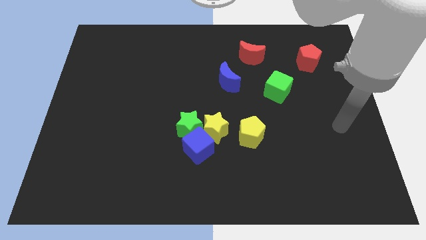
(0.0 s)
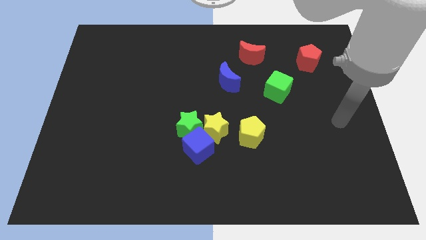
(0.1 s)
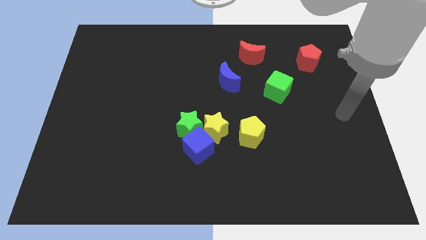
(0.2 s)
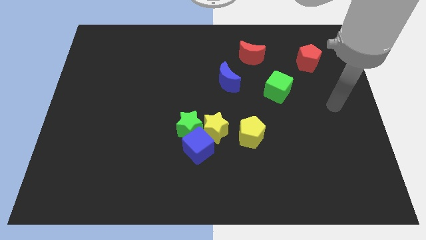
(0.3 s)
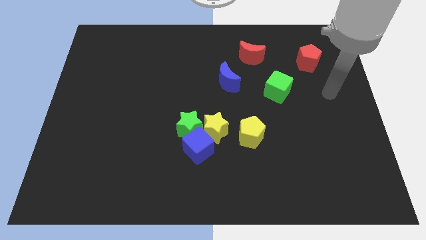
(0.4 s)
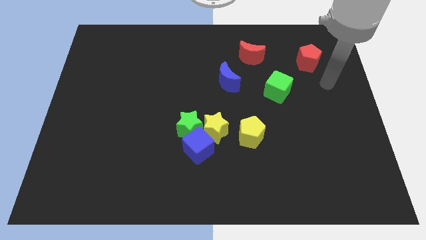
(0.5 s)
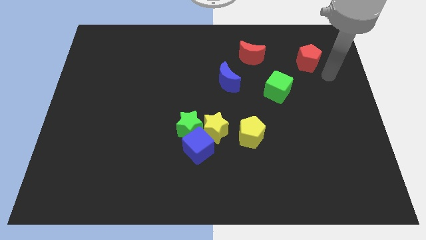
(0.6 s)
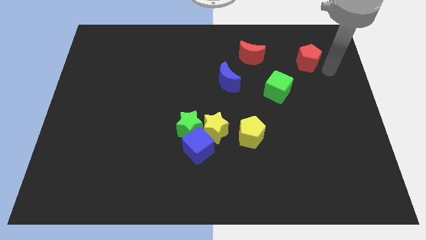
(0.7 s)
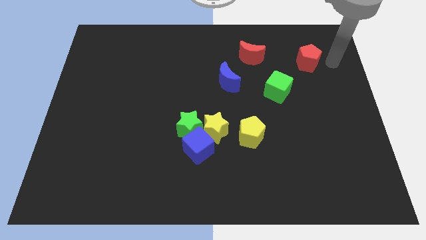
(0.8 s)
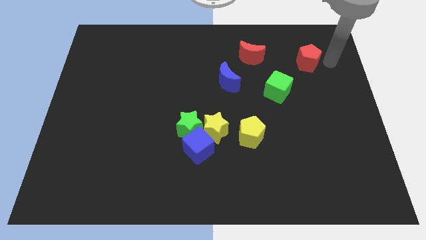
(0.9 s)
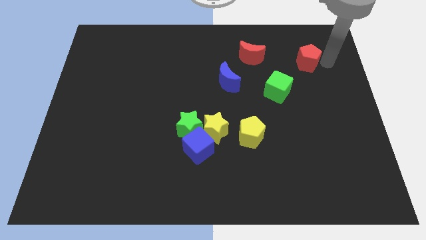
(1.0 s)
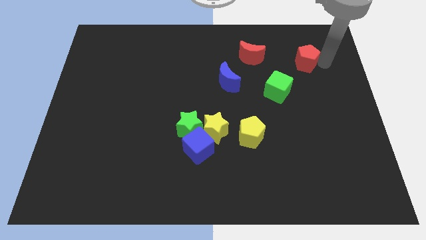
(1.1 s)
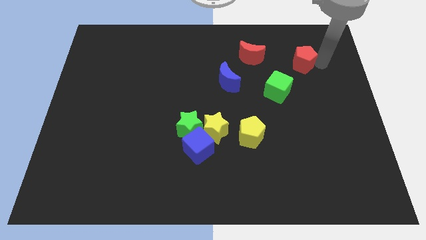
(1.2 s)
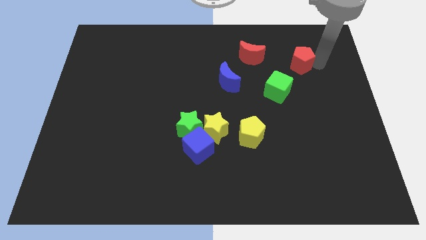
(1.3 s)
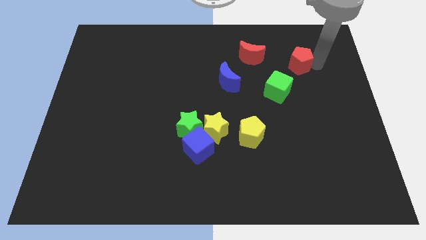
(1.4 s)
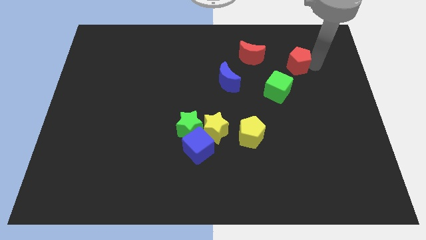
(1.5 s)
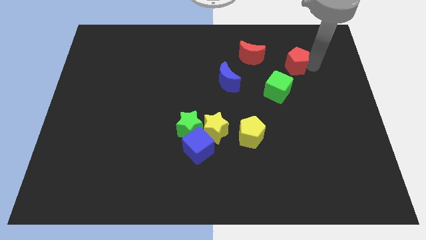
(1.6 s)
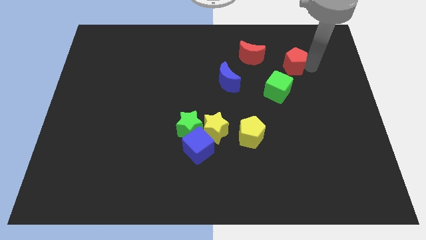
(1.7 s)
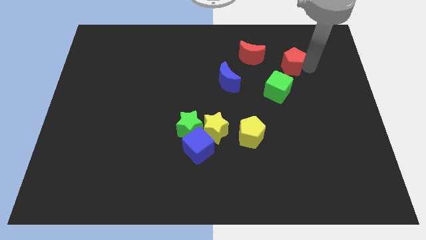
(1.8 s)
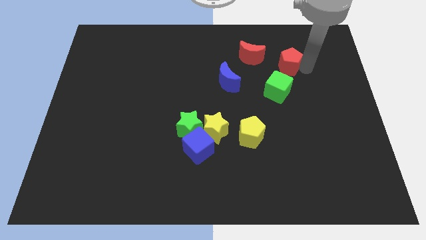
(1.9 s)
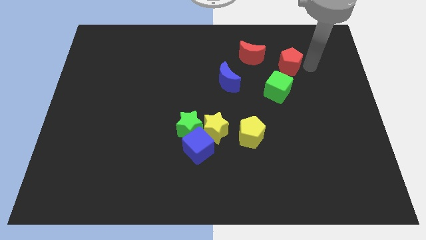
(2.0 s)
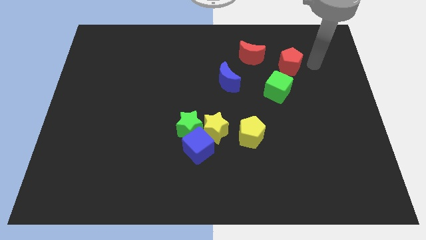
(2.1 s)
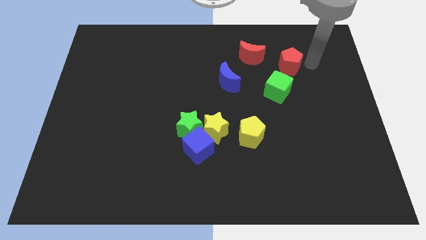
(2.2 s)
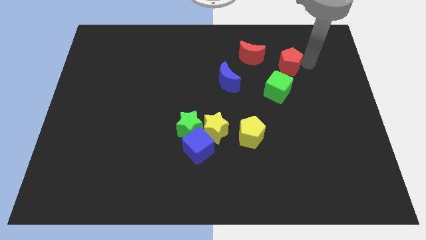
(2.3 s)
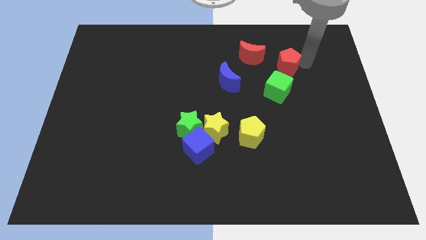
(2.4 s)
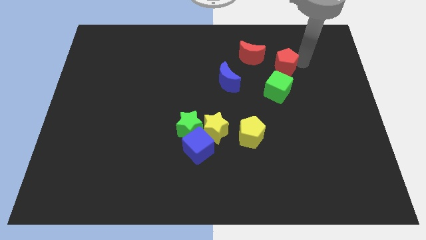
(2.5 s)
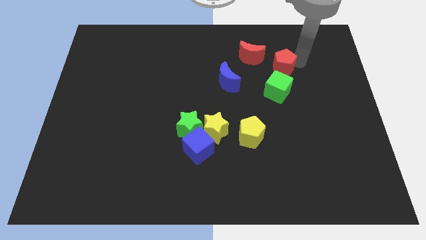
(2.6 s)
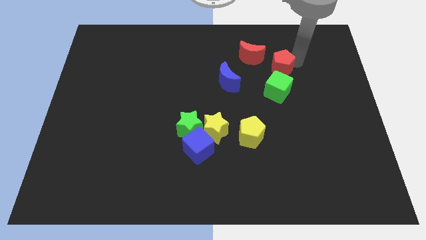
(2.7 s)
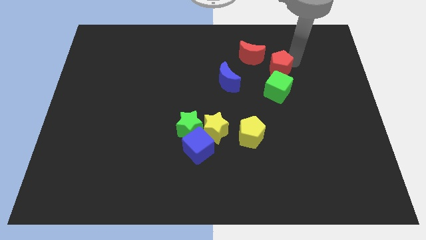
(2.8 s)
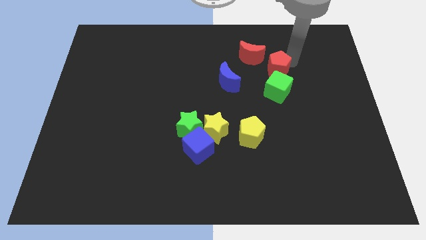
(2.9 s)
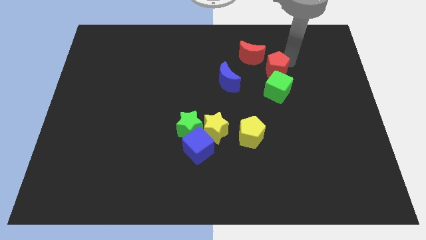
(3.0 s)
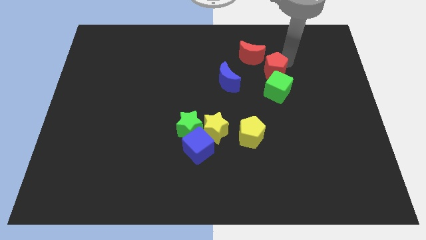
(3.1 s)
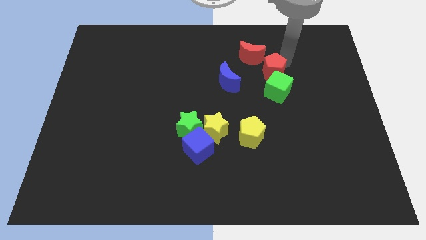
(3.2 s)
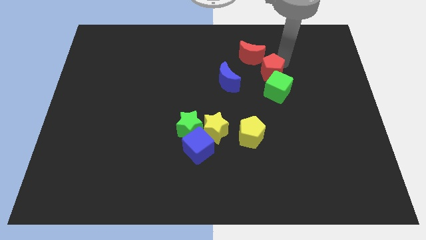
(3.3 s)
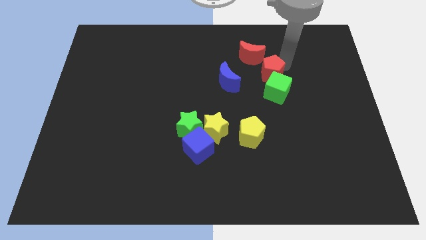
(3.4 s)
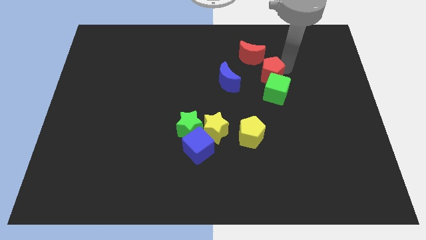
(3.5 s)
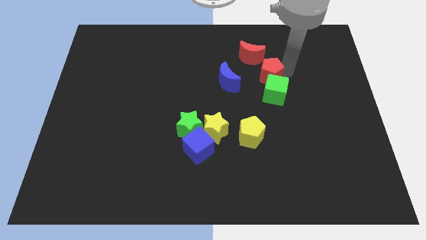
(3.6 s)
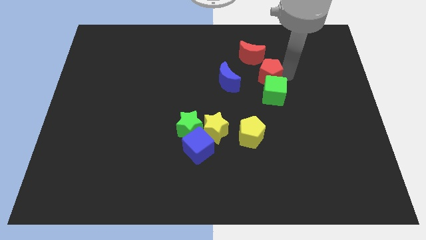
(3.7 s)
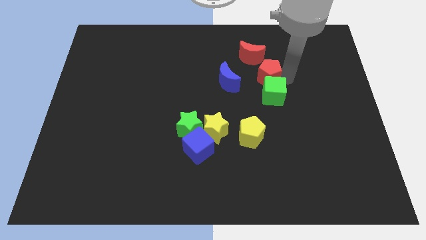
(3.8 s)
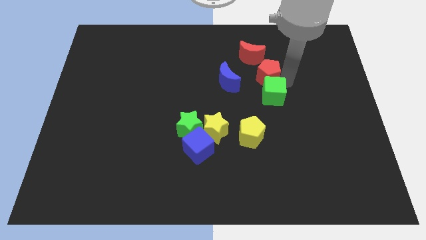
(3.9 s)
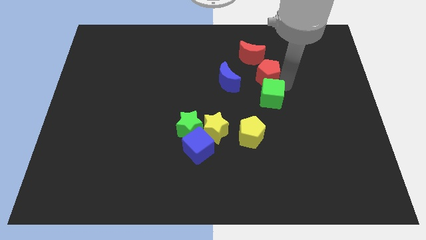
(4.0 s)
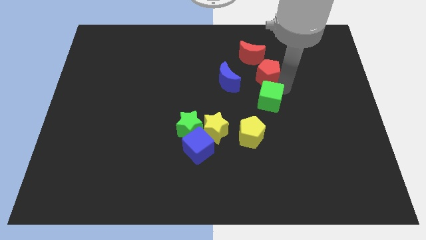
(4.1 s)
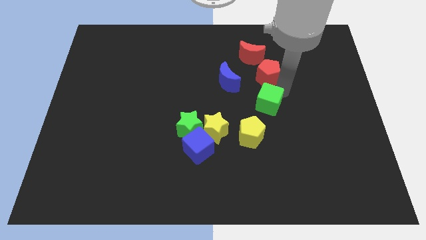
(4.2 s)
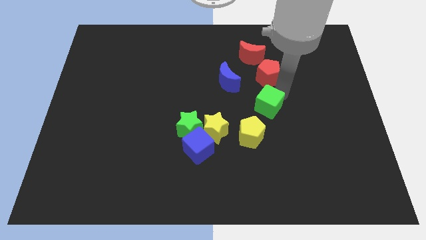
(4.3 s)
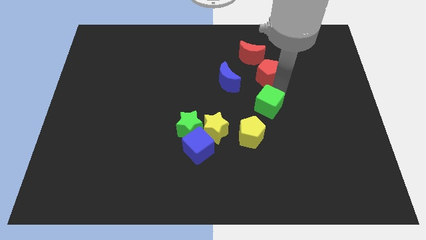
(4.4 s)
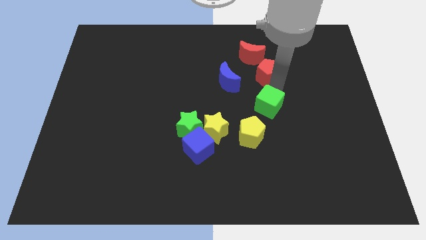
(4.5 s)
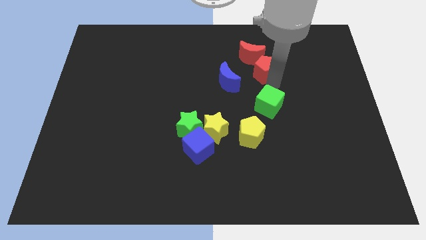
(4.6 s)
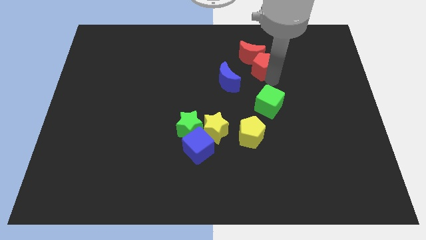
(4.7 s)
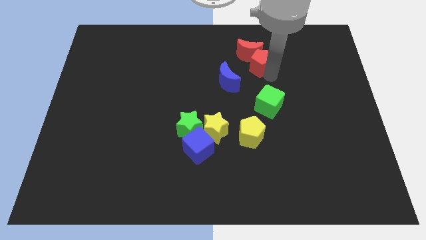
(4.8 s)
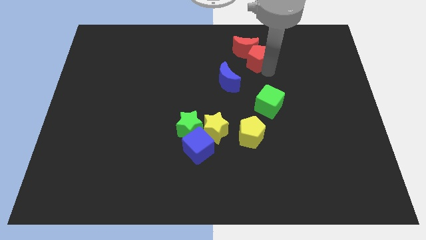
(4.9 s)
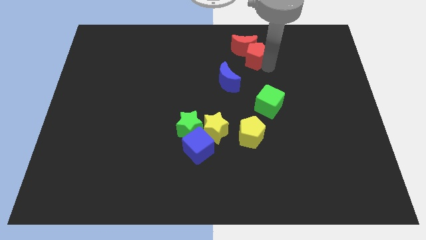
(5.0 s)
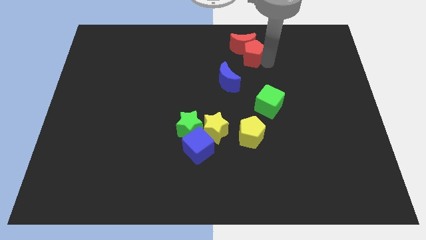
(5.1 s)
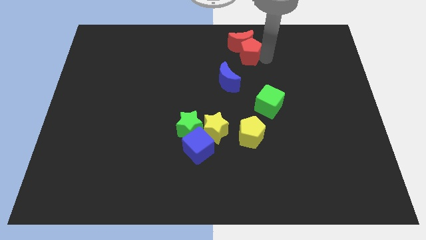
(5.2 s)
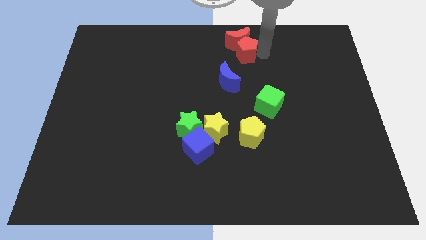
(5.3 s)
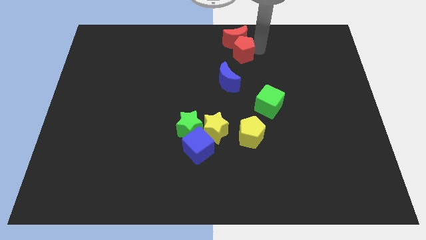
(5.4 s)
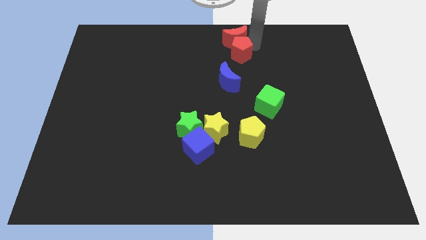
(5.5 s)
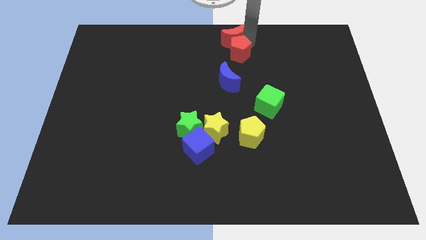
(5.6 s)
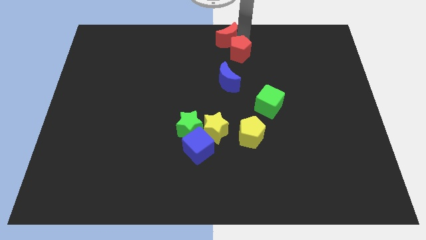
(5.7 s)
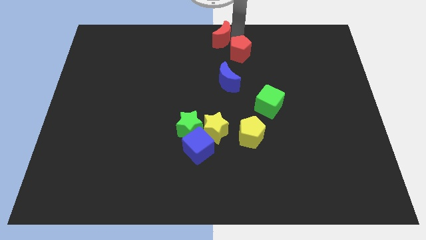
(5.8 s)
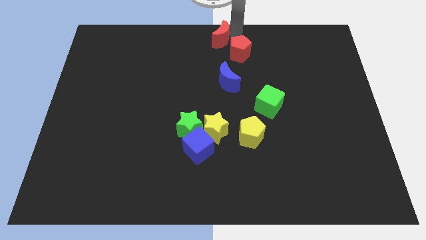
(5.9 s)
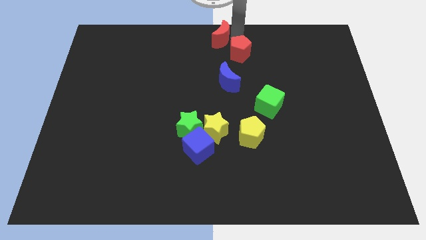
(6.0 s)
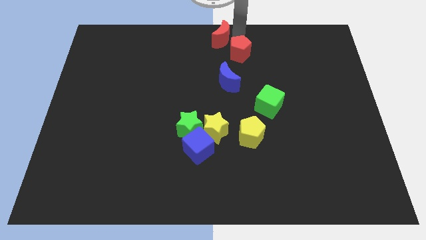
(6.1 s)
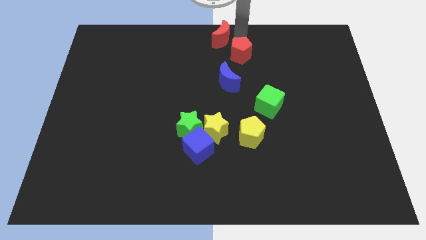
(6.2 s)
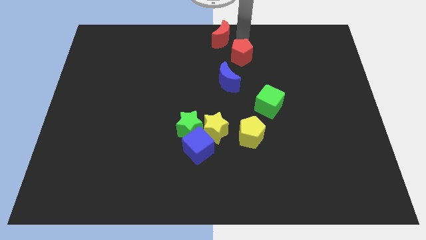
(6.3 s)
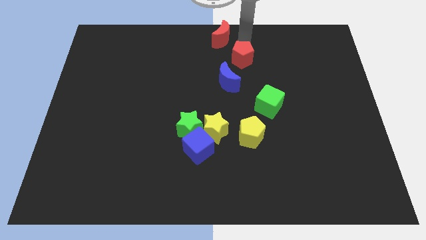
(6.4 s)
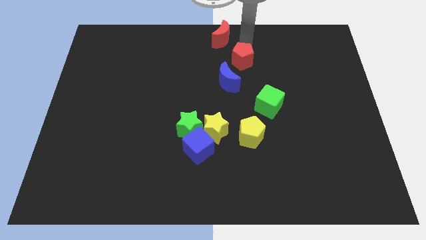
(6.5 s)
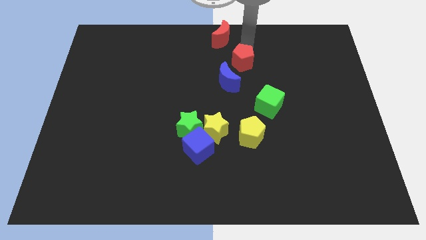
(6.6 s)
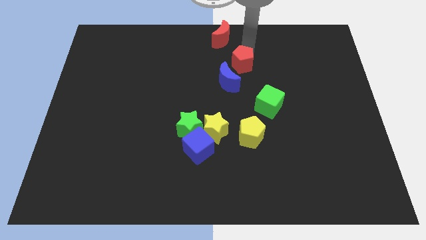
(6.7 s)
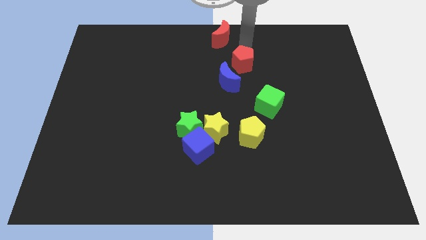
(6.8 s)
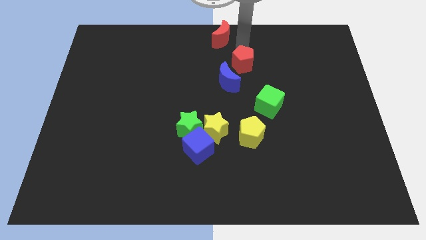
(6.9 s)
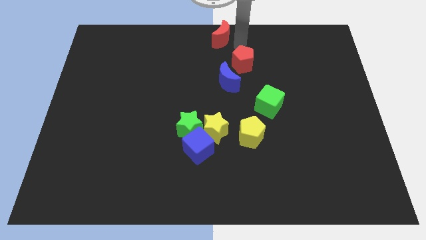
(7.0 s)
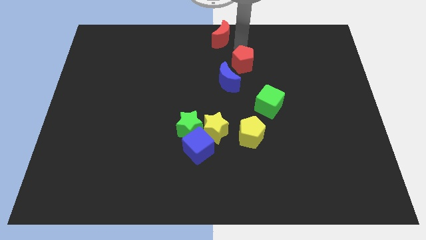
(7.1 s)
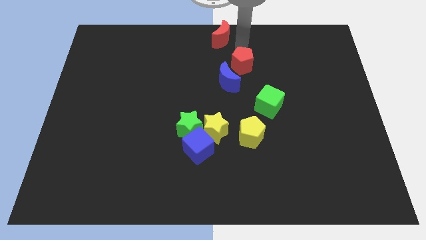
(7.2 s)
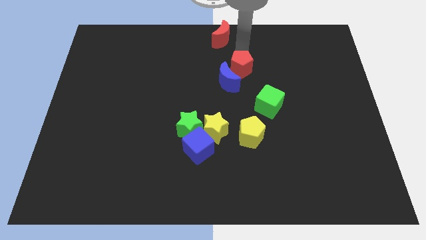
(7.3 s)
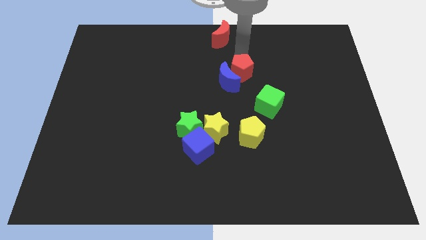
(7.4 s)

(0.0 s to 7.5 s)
move the red pentagon to the center of the board
